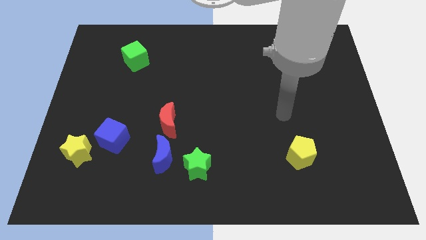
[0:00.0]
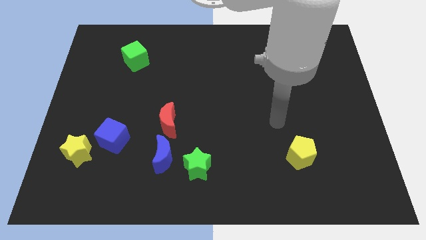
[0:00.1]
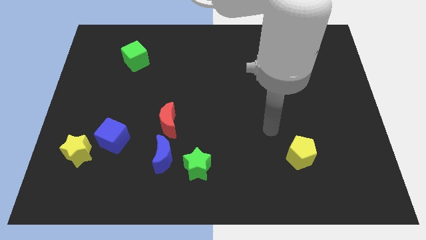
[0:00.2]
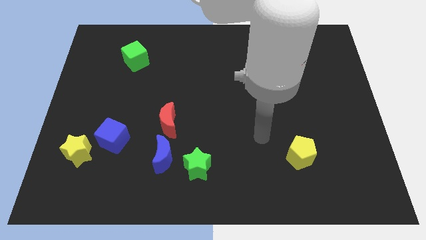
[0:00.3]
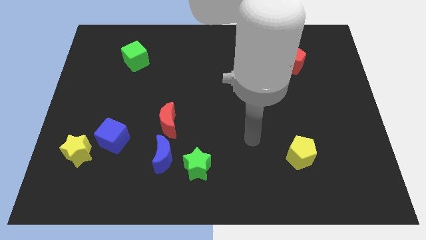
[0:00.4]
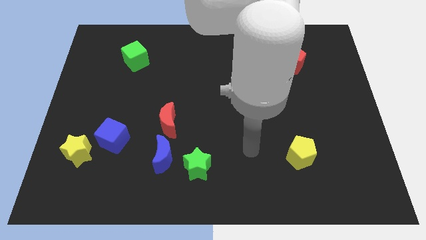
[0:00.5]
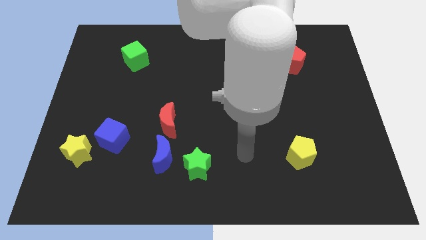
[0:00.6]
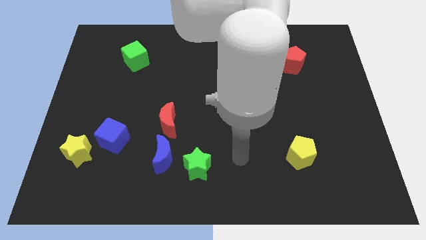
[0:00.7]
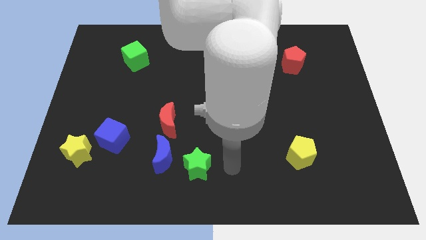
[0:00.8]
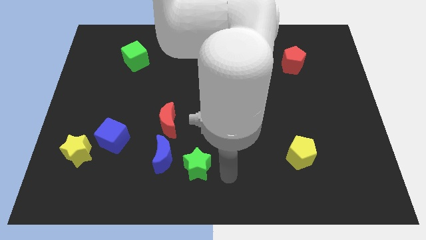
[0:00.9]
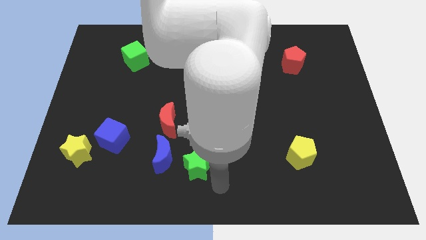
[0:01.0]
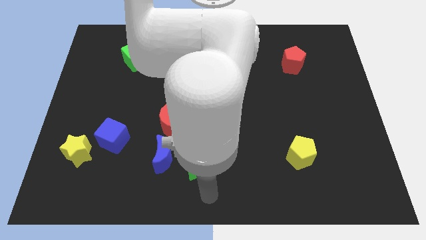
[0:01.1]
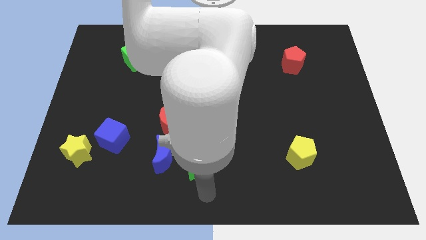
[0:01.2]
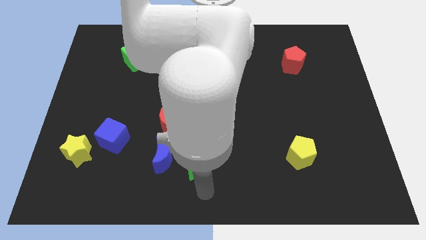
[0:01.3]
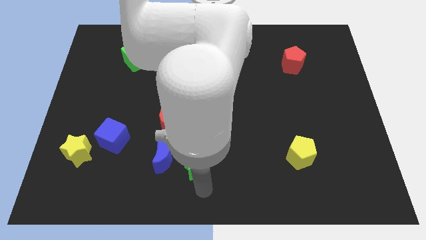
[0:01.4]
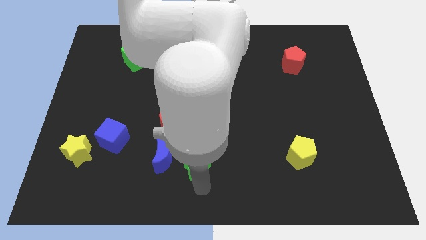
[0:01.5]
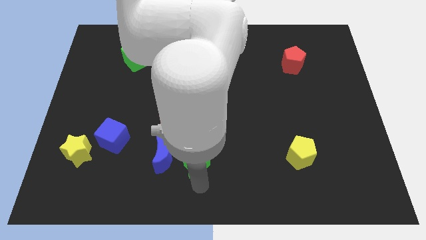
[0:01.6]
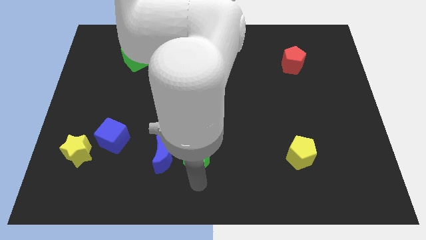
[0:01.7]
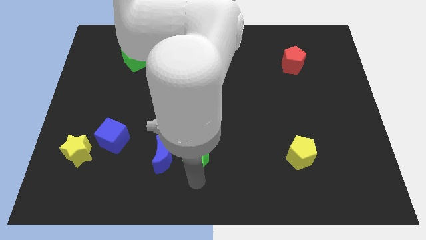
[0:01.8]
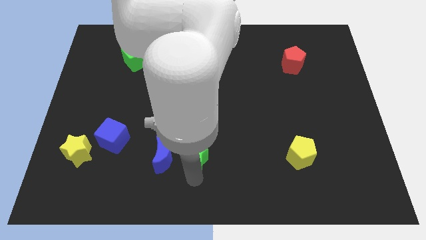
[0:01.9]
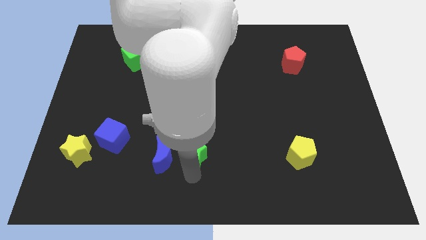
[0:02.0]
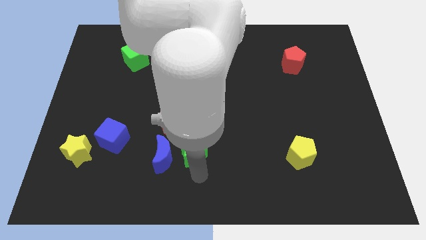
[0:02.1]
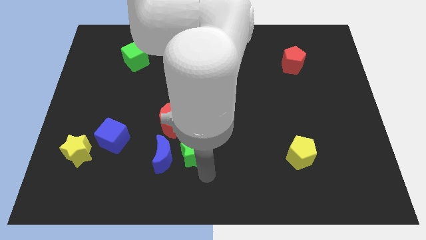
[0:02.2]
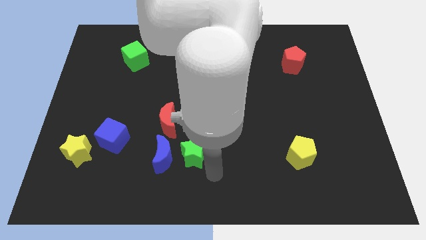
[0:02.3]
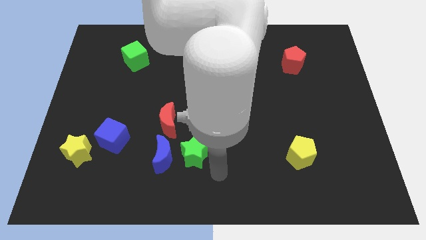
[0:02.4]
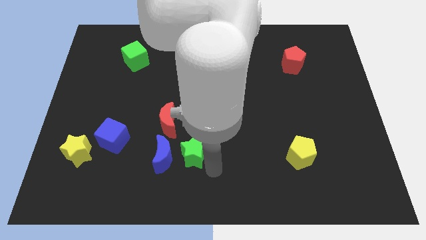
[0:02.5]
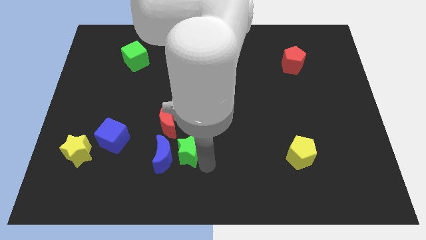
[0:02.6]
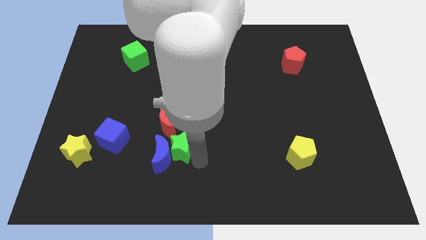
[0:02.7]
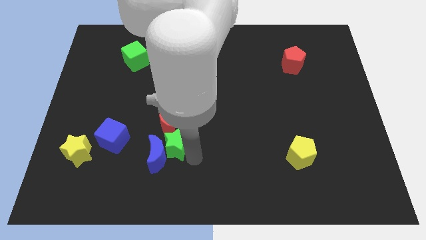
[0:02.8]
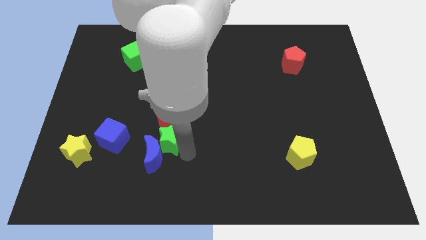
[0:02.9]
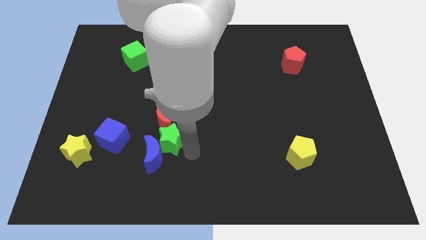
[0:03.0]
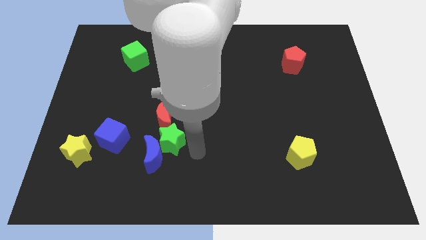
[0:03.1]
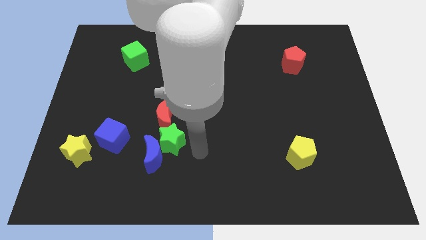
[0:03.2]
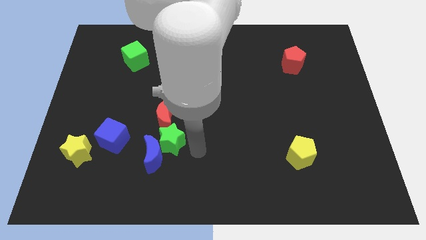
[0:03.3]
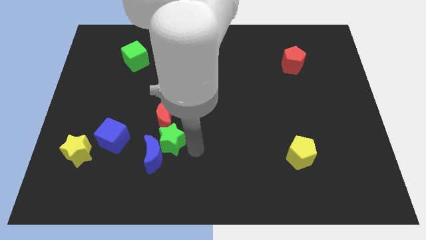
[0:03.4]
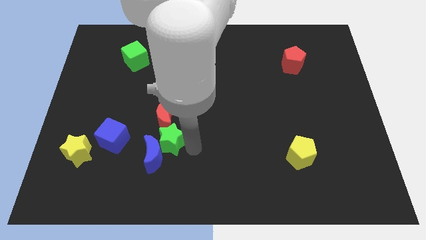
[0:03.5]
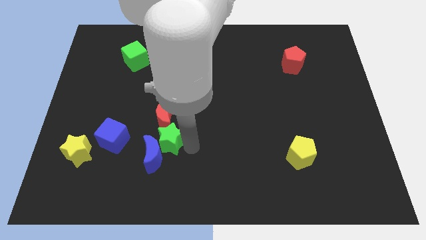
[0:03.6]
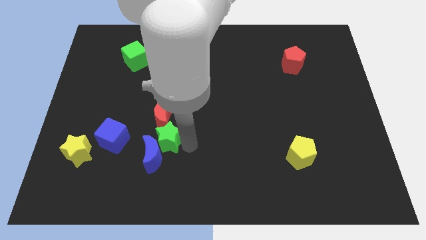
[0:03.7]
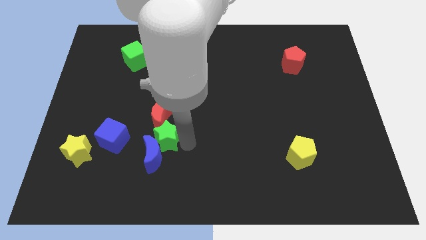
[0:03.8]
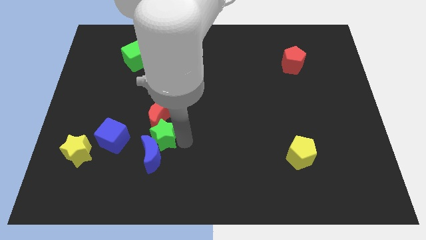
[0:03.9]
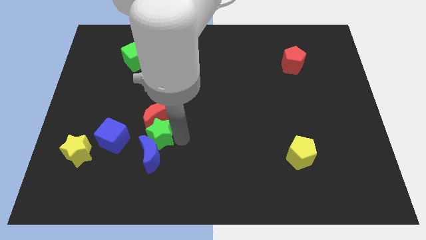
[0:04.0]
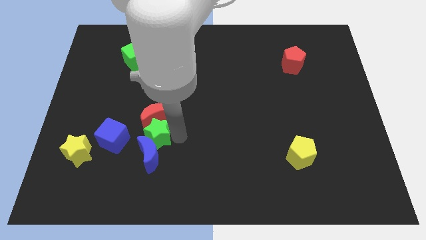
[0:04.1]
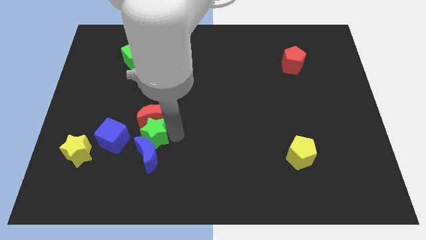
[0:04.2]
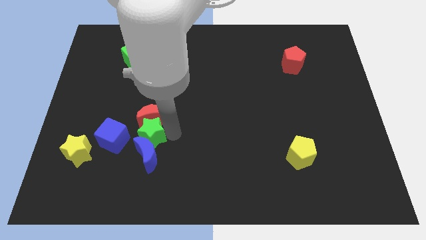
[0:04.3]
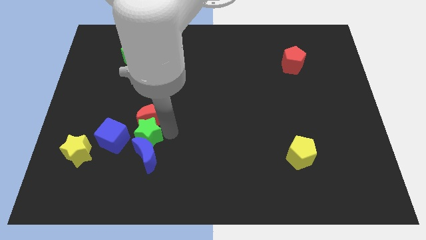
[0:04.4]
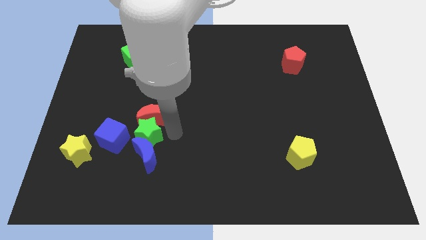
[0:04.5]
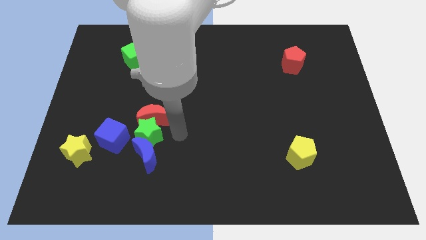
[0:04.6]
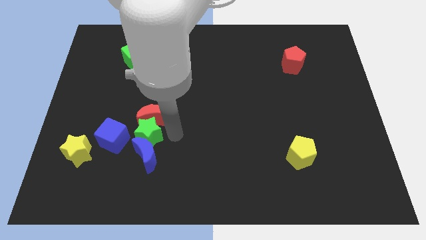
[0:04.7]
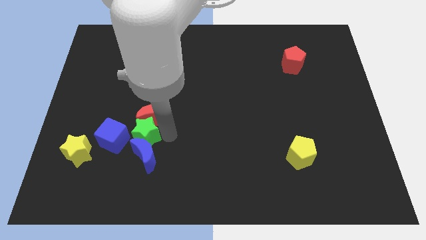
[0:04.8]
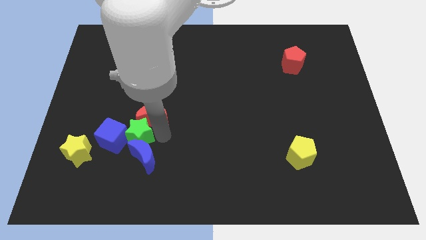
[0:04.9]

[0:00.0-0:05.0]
slide the green star next to the blue cube

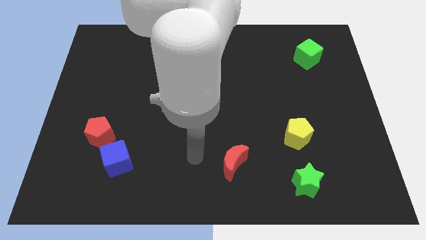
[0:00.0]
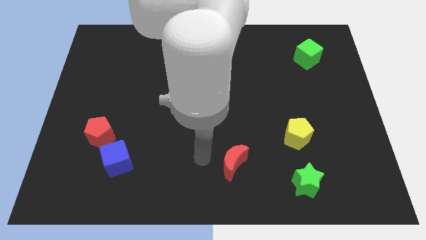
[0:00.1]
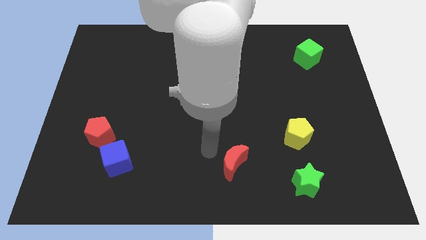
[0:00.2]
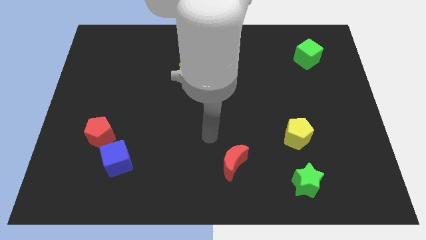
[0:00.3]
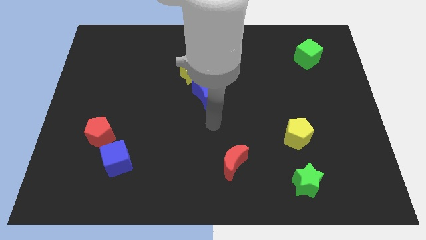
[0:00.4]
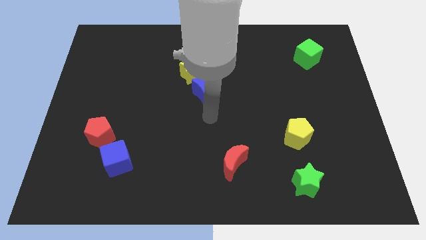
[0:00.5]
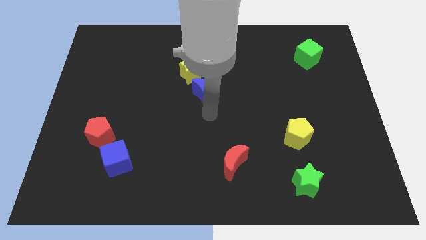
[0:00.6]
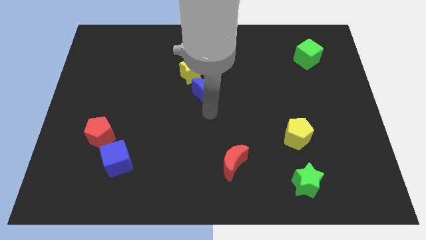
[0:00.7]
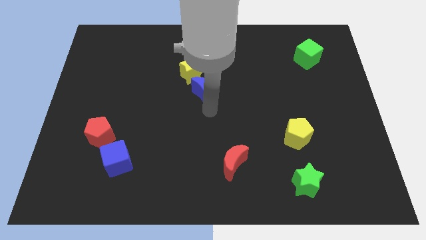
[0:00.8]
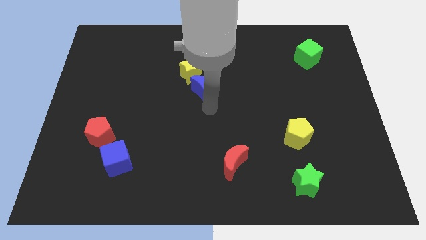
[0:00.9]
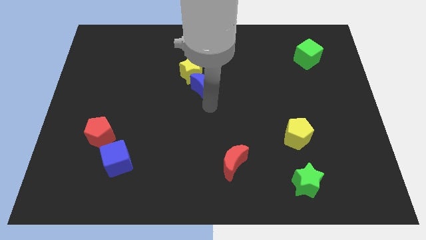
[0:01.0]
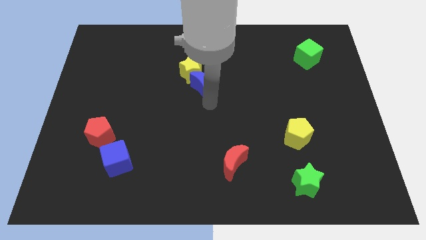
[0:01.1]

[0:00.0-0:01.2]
move the blue moon to the yellow star
